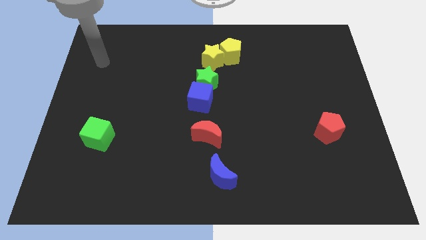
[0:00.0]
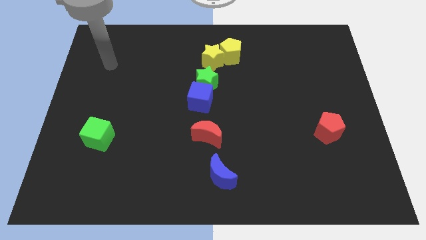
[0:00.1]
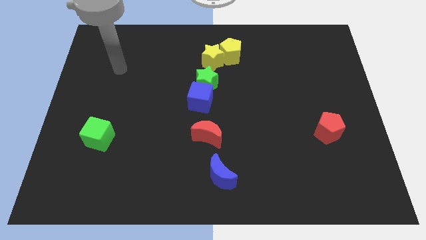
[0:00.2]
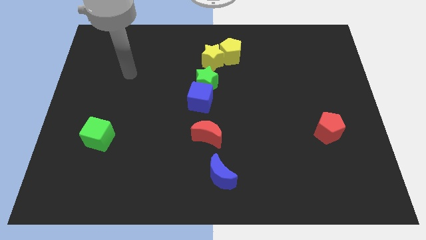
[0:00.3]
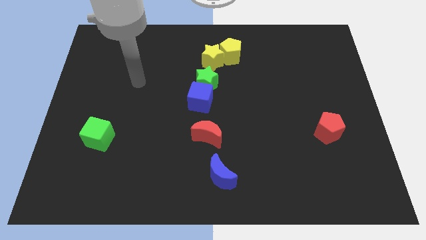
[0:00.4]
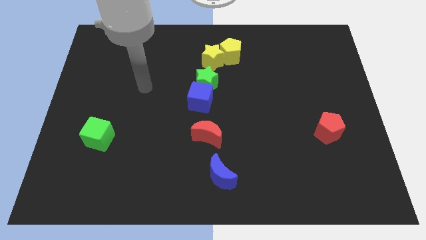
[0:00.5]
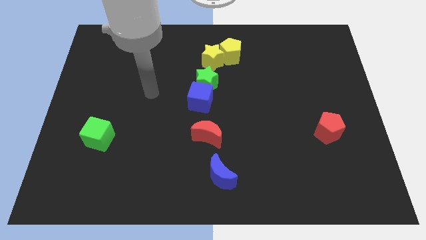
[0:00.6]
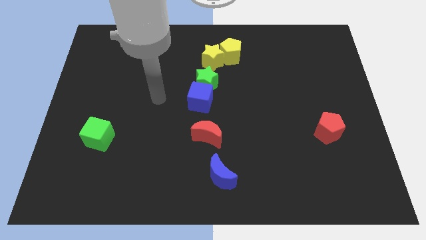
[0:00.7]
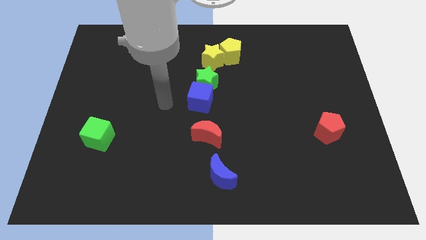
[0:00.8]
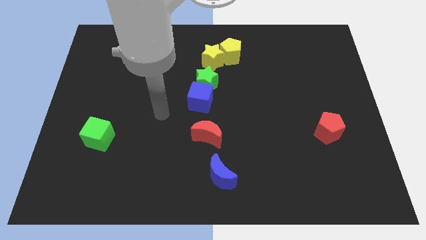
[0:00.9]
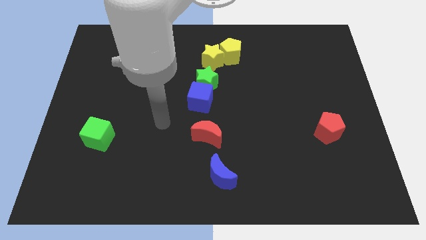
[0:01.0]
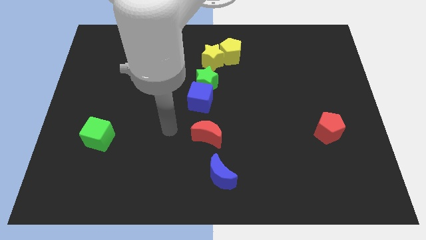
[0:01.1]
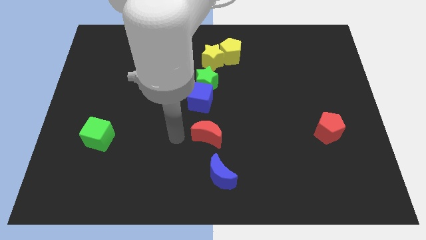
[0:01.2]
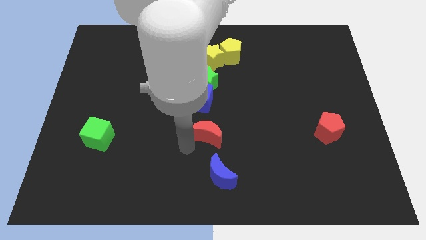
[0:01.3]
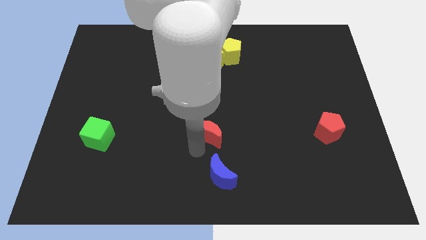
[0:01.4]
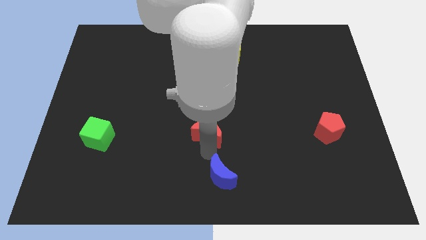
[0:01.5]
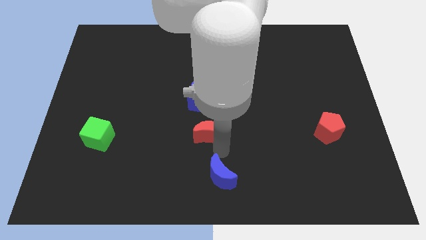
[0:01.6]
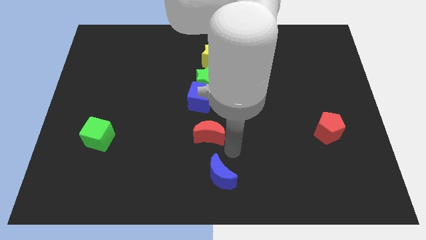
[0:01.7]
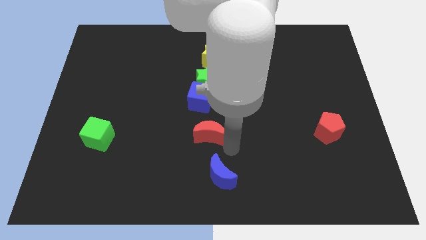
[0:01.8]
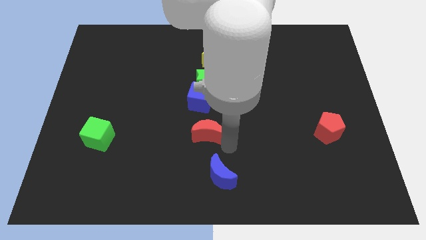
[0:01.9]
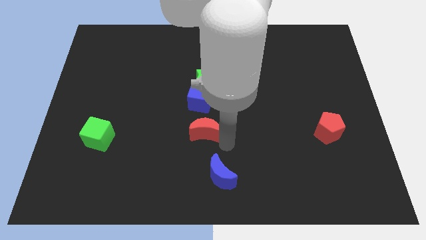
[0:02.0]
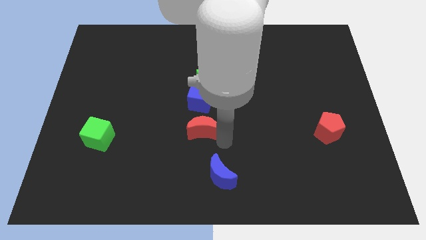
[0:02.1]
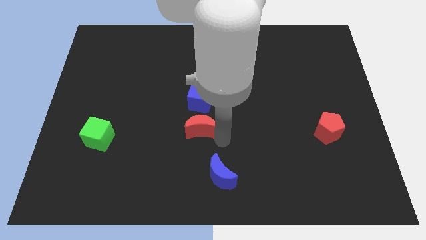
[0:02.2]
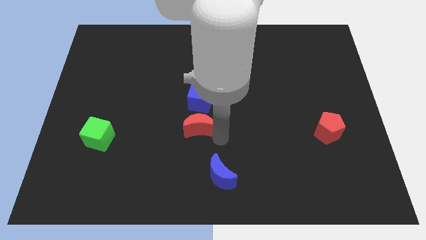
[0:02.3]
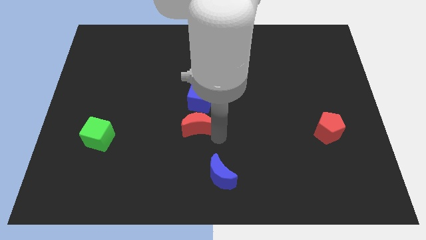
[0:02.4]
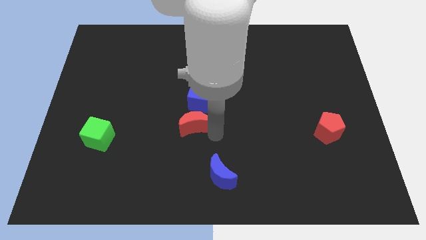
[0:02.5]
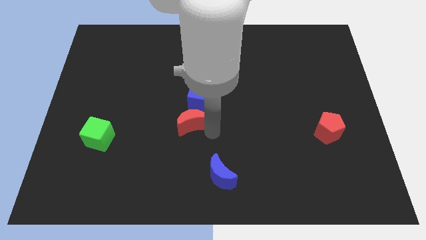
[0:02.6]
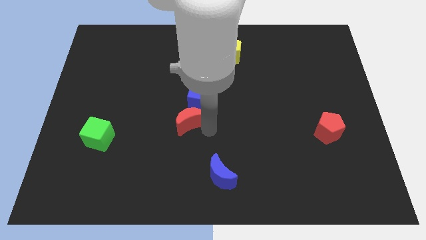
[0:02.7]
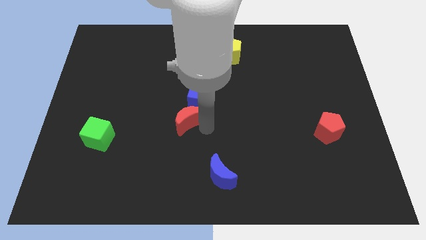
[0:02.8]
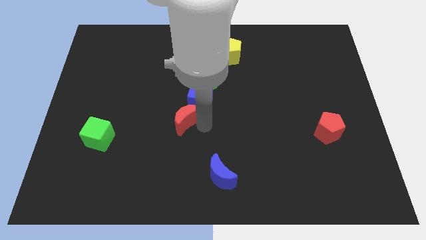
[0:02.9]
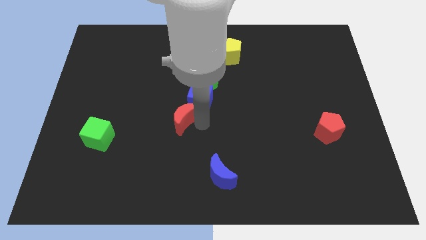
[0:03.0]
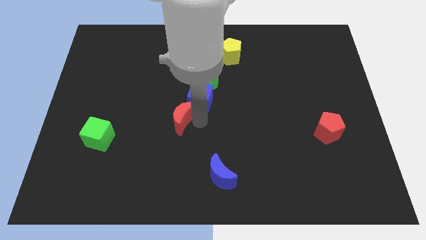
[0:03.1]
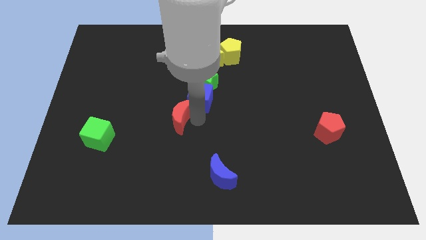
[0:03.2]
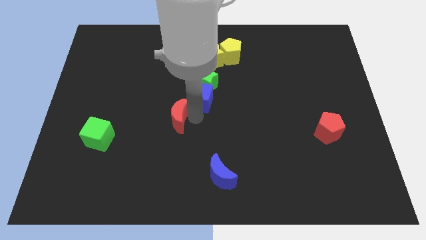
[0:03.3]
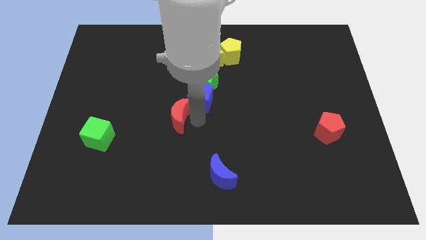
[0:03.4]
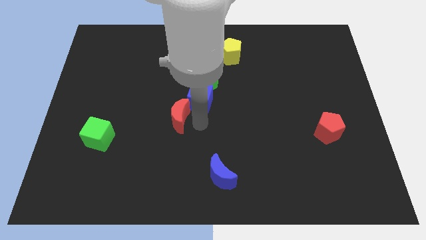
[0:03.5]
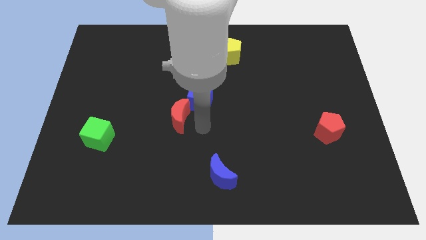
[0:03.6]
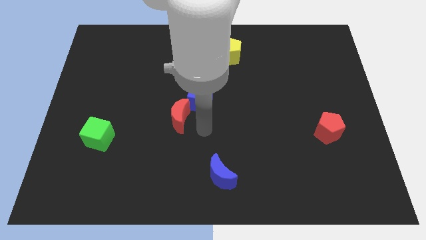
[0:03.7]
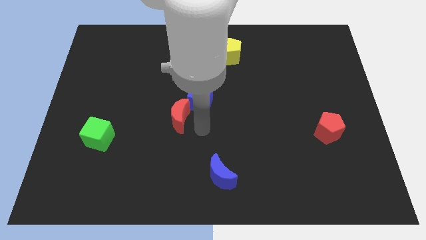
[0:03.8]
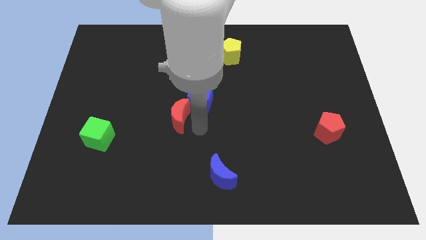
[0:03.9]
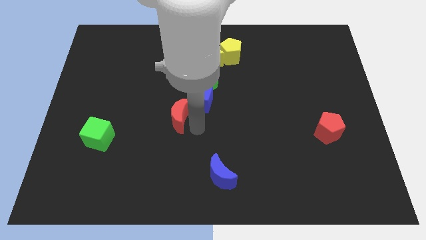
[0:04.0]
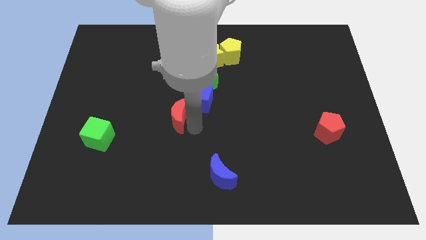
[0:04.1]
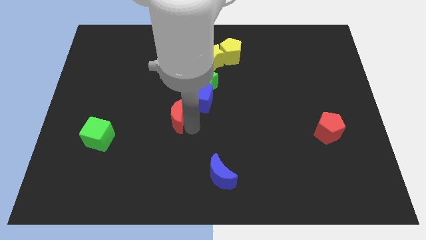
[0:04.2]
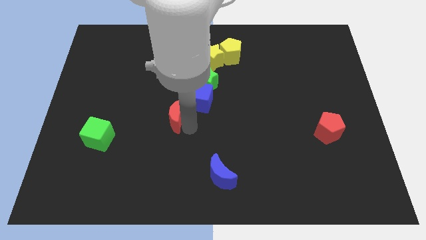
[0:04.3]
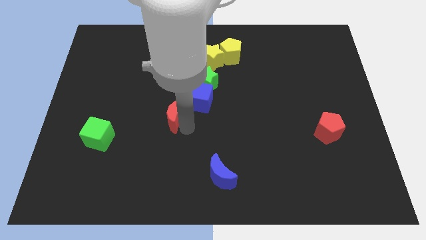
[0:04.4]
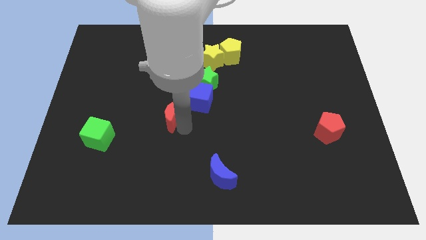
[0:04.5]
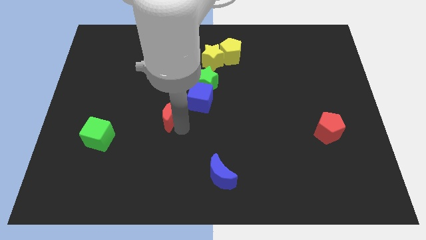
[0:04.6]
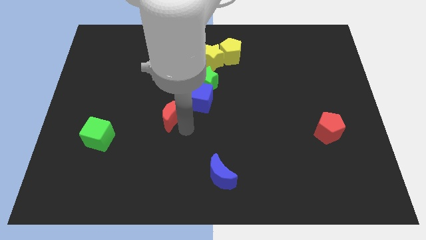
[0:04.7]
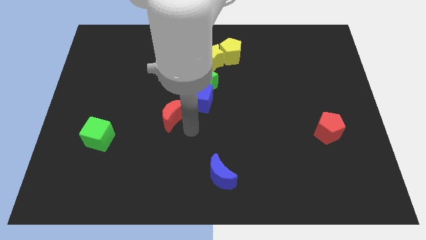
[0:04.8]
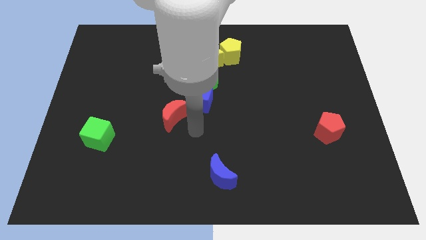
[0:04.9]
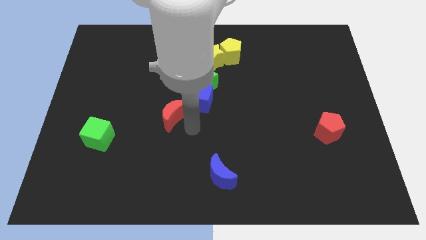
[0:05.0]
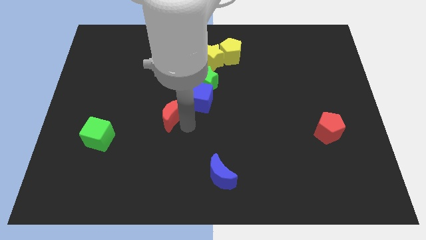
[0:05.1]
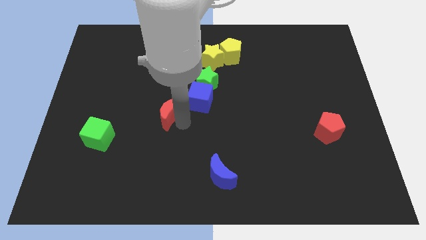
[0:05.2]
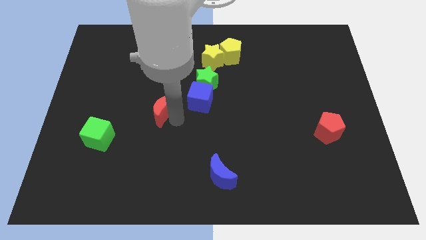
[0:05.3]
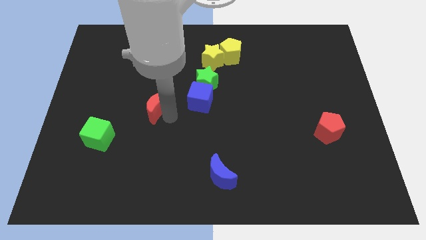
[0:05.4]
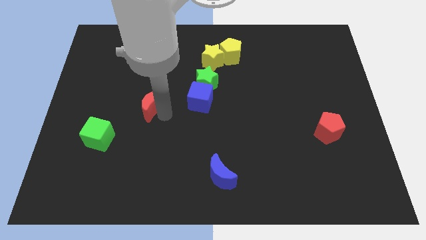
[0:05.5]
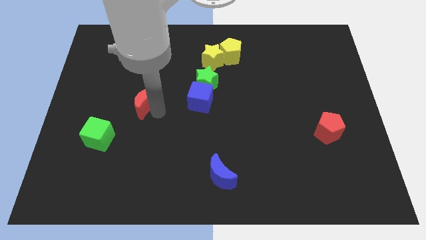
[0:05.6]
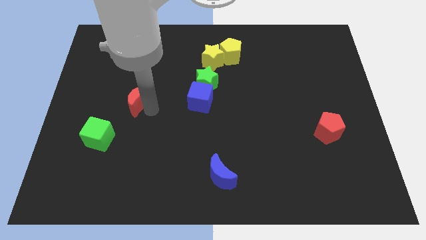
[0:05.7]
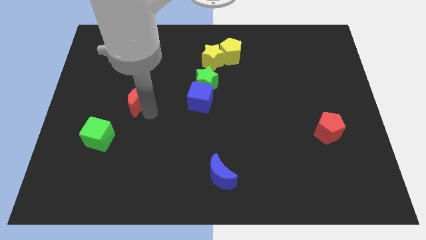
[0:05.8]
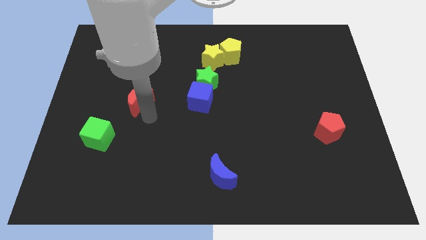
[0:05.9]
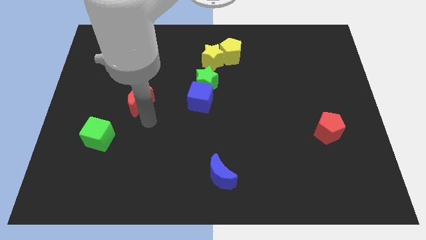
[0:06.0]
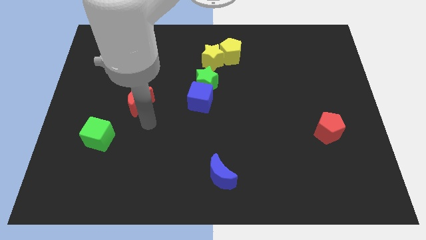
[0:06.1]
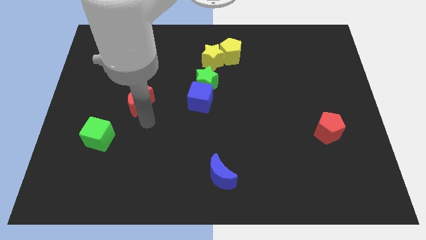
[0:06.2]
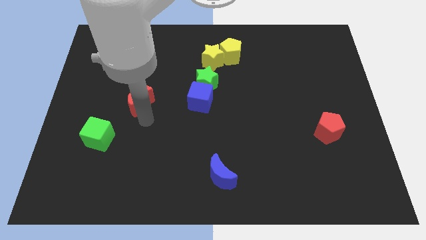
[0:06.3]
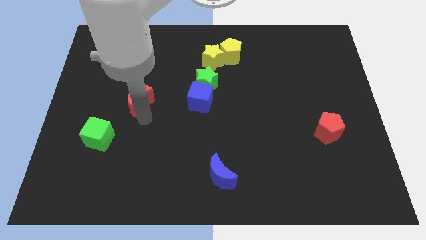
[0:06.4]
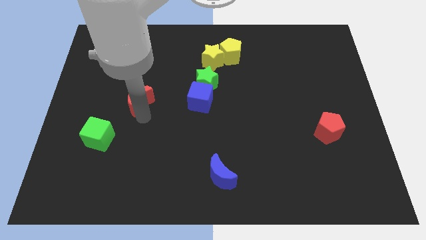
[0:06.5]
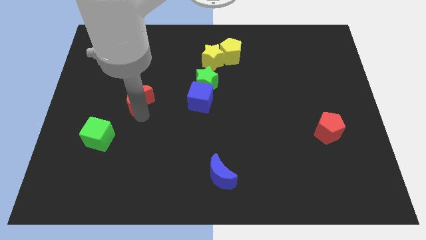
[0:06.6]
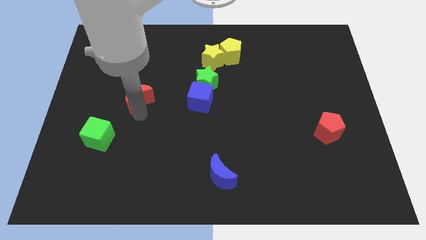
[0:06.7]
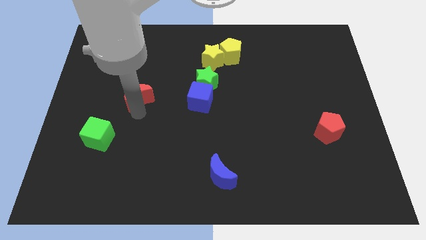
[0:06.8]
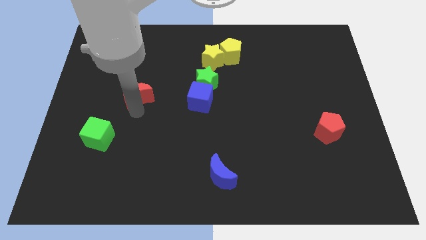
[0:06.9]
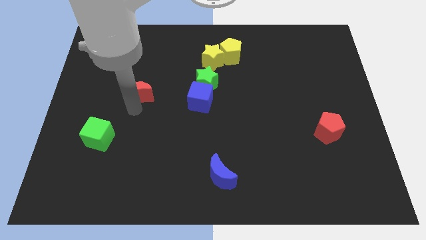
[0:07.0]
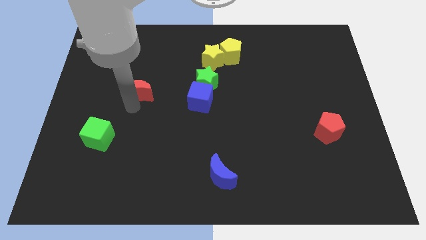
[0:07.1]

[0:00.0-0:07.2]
push the red moon up and then left

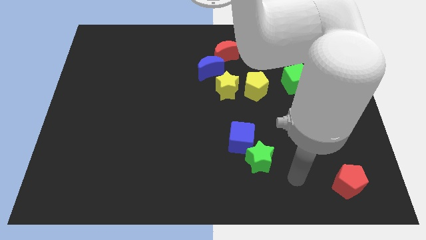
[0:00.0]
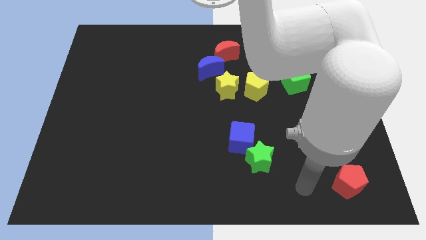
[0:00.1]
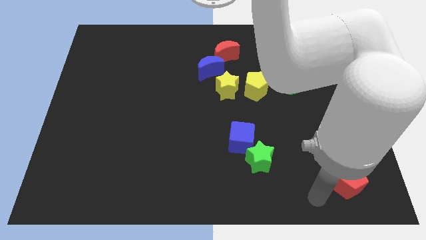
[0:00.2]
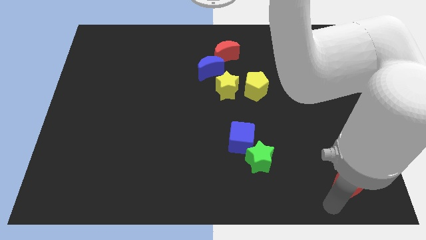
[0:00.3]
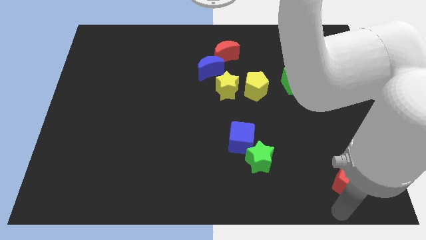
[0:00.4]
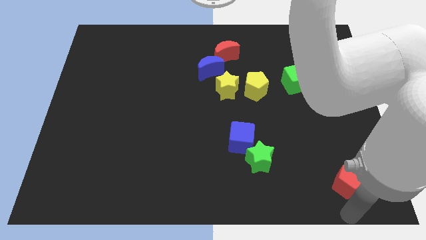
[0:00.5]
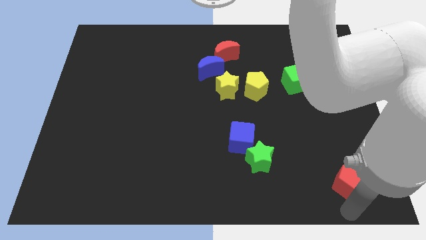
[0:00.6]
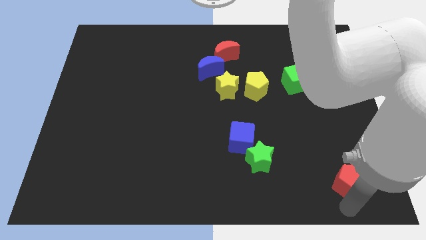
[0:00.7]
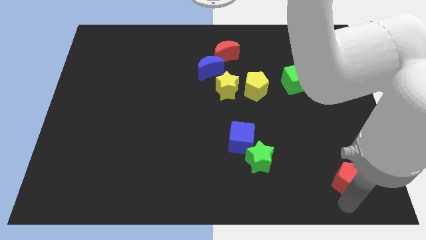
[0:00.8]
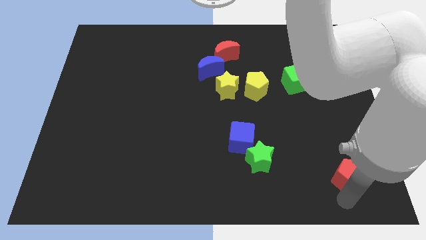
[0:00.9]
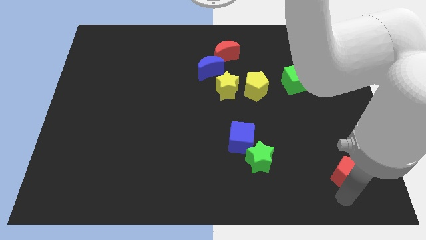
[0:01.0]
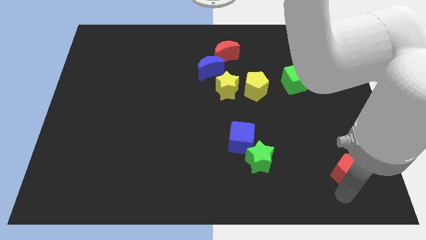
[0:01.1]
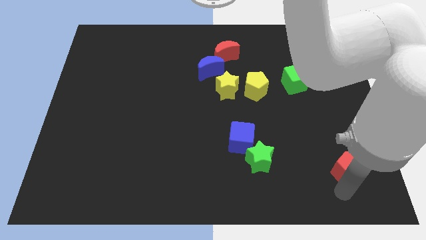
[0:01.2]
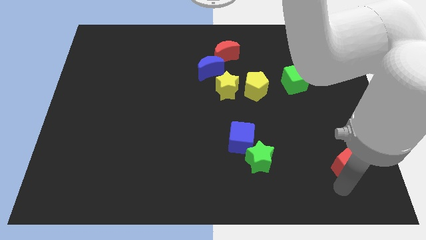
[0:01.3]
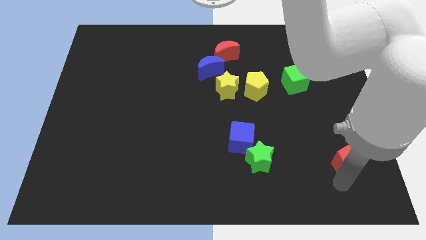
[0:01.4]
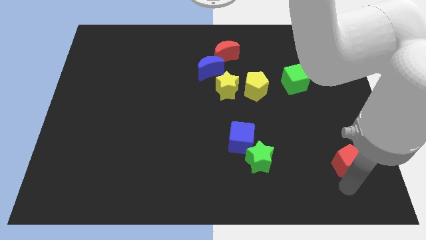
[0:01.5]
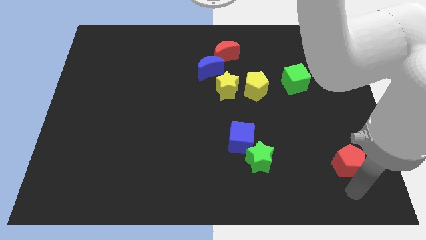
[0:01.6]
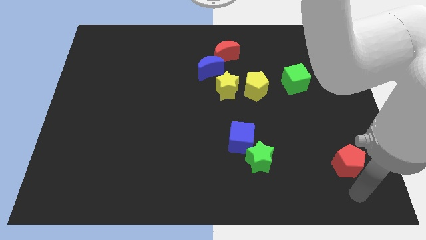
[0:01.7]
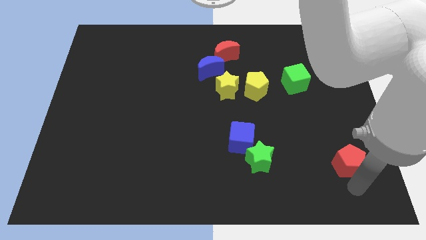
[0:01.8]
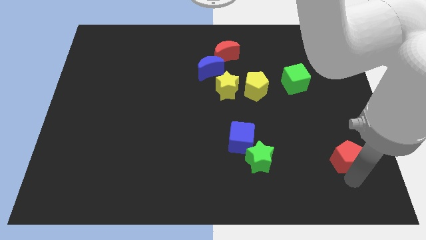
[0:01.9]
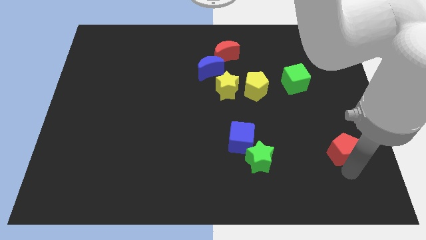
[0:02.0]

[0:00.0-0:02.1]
move the red pentagon upwards somewhat
